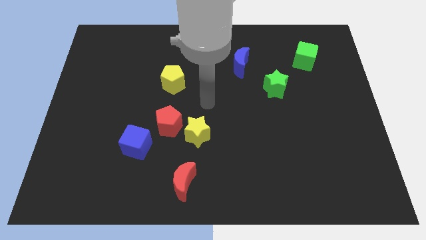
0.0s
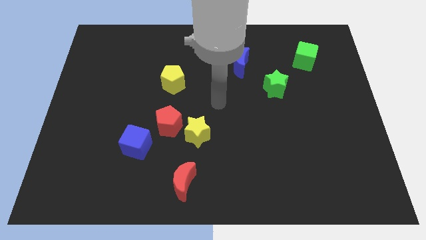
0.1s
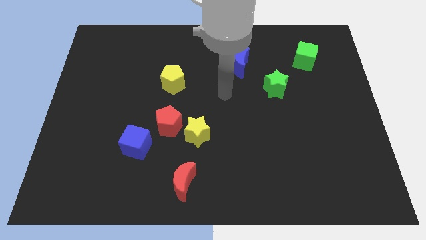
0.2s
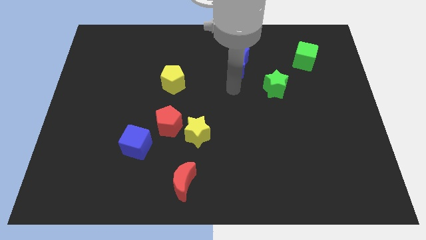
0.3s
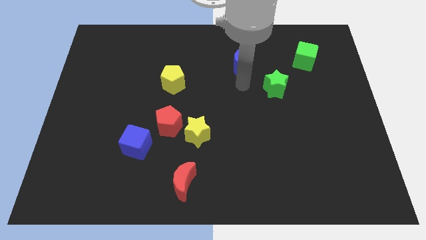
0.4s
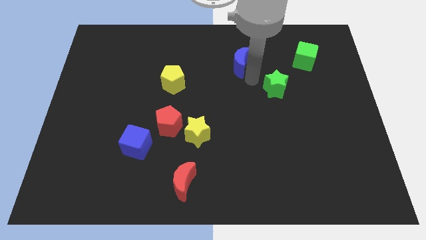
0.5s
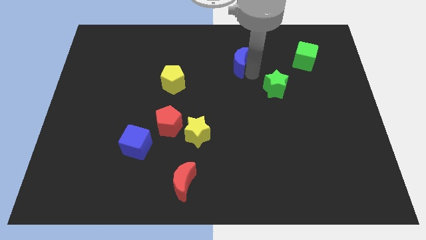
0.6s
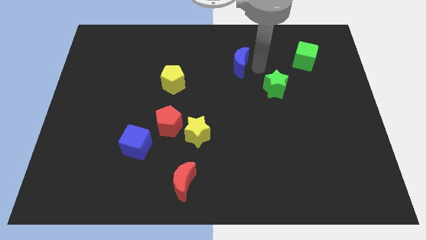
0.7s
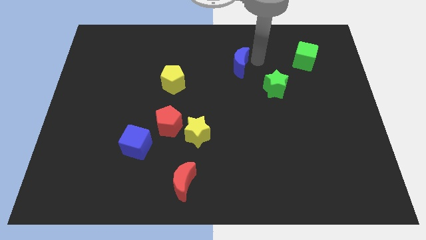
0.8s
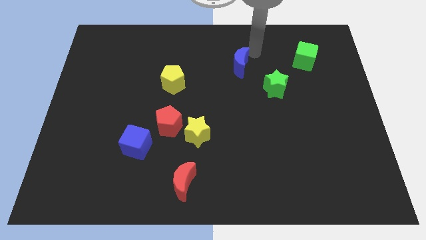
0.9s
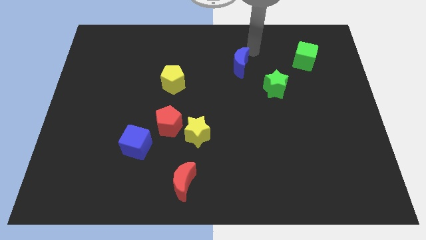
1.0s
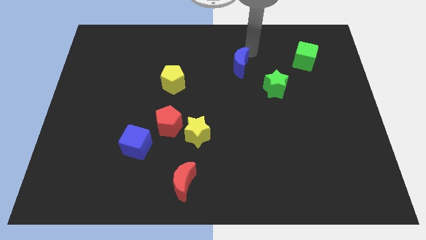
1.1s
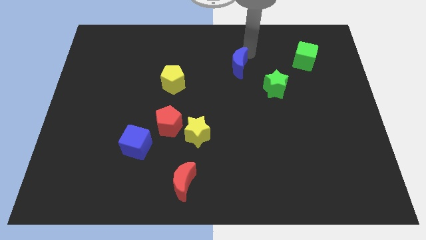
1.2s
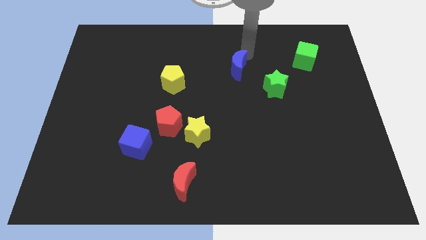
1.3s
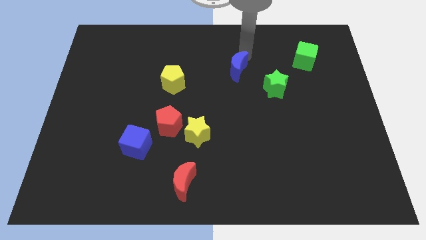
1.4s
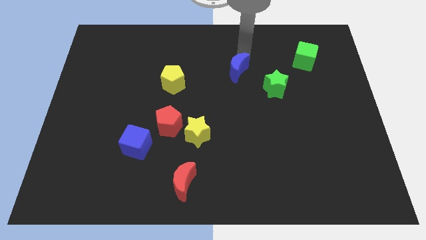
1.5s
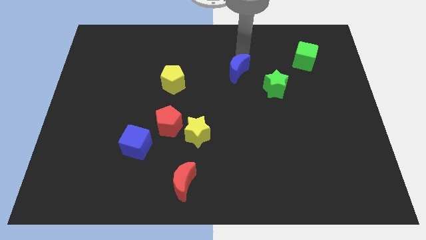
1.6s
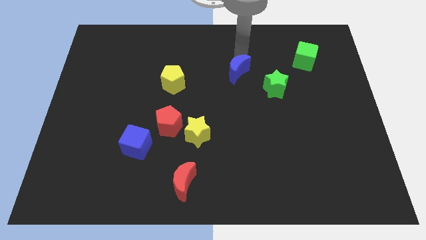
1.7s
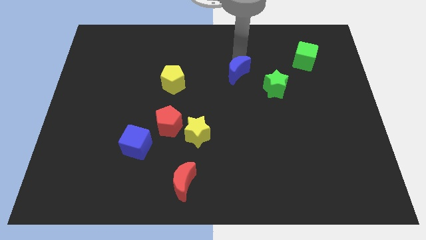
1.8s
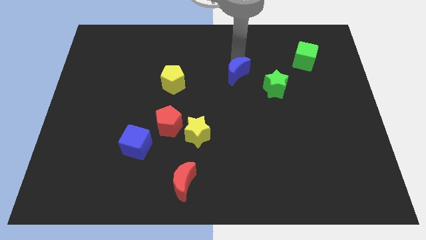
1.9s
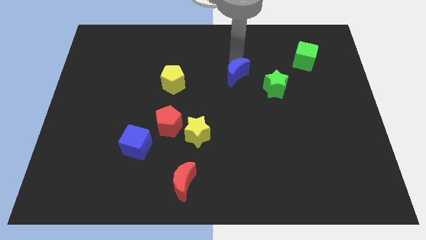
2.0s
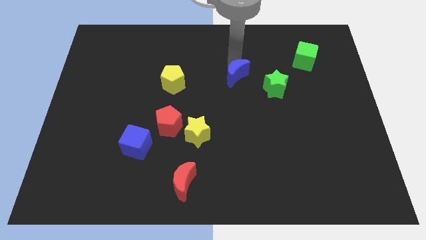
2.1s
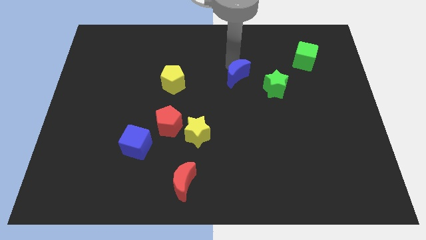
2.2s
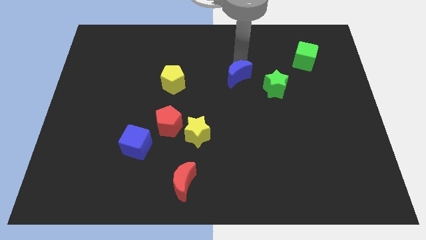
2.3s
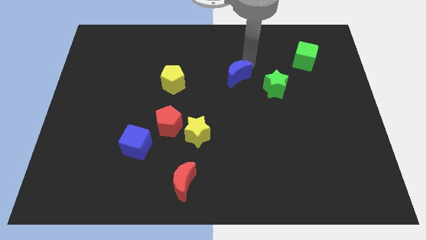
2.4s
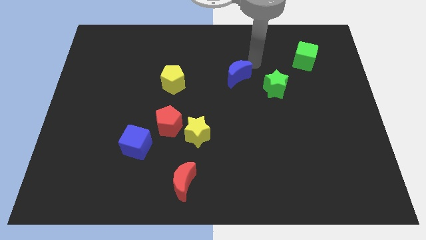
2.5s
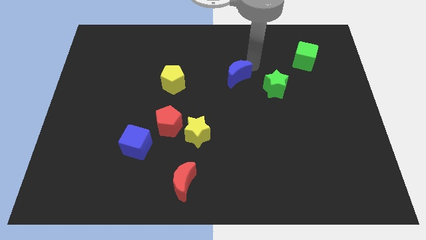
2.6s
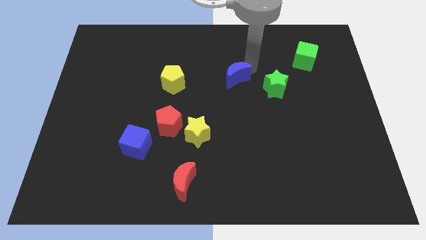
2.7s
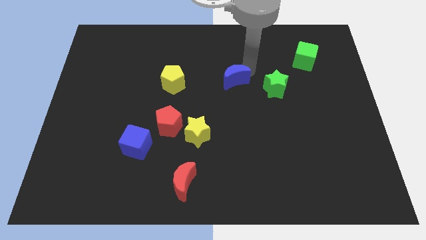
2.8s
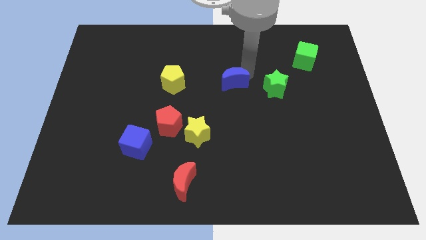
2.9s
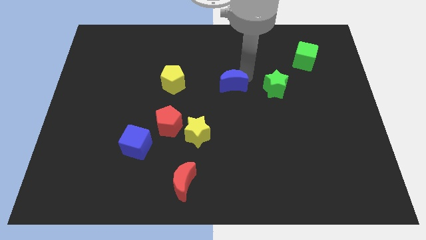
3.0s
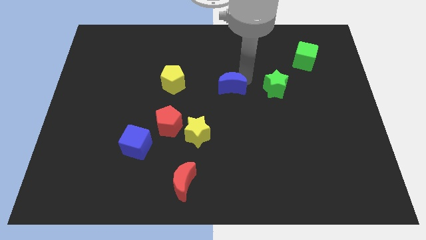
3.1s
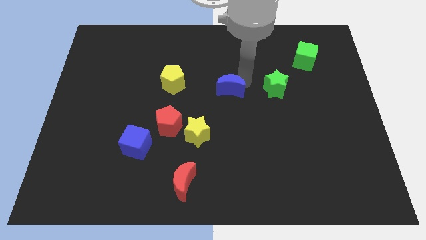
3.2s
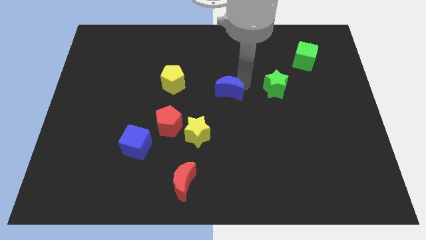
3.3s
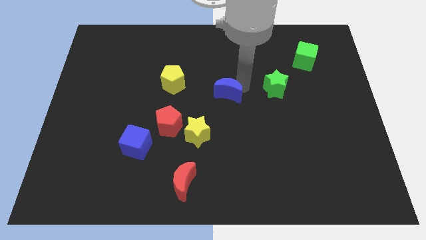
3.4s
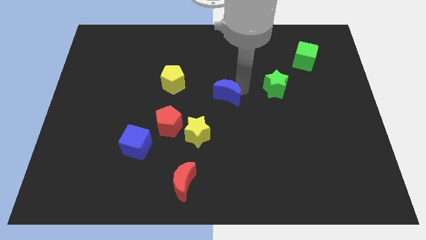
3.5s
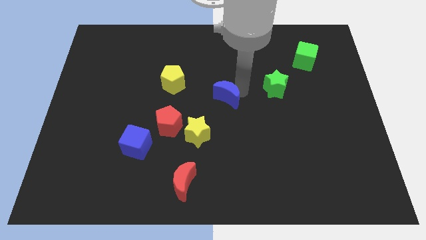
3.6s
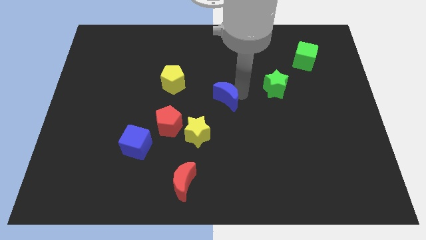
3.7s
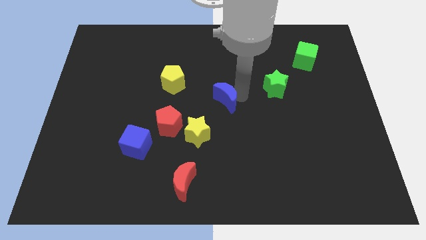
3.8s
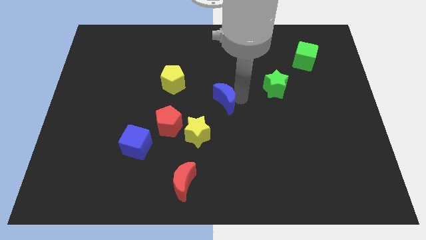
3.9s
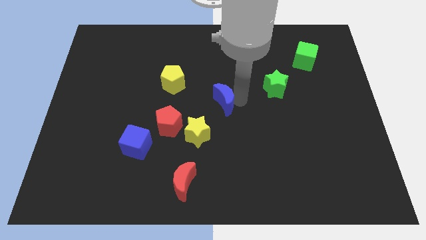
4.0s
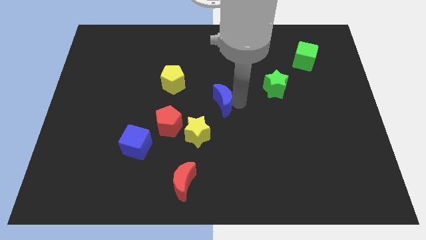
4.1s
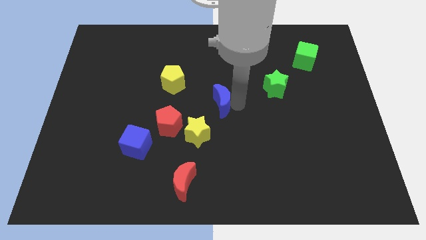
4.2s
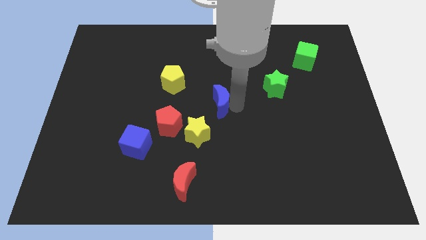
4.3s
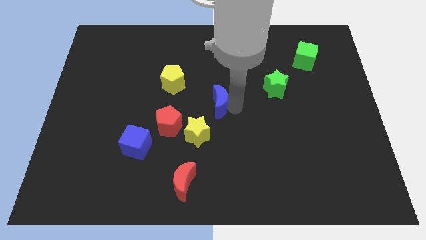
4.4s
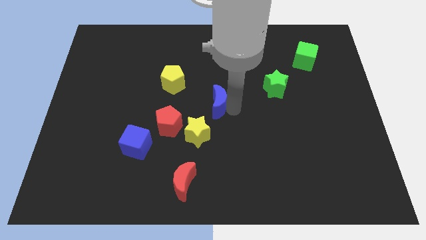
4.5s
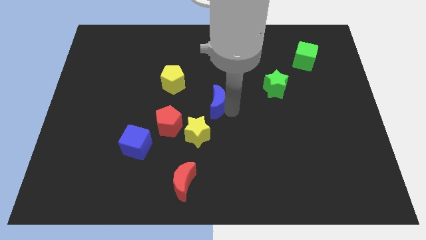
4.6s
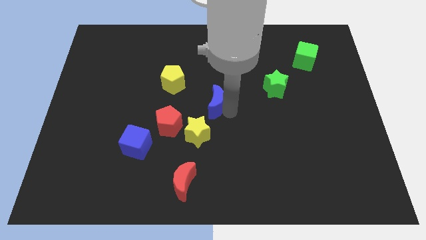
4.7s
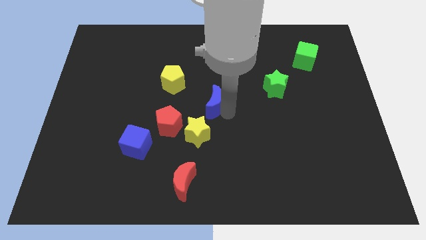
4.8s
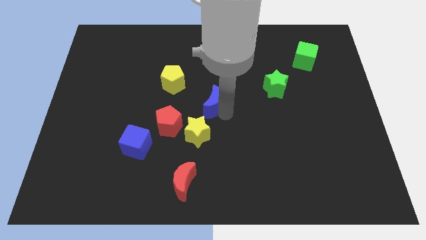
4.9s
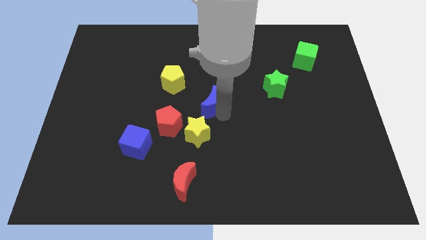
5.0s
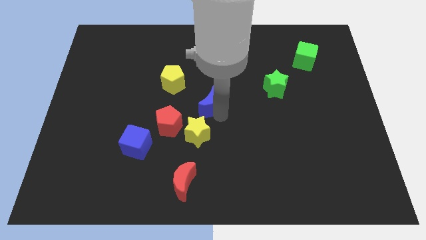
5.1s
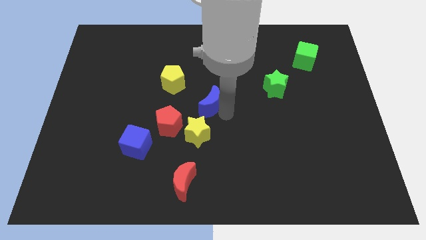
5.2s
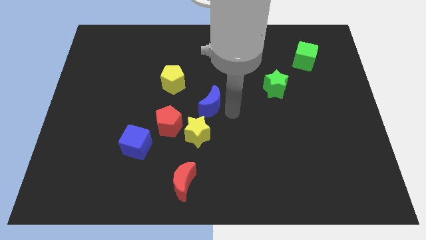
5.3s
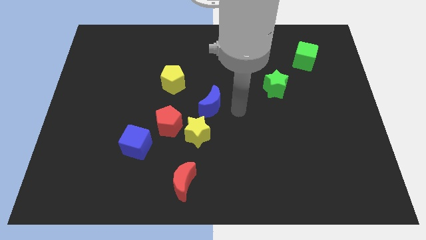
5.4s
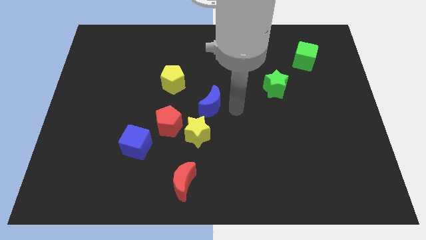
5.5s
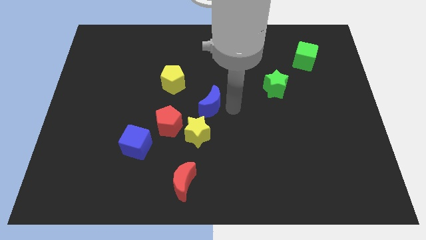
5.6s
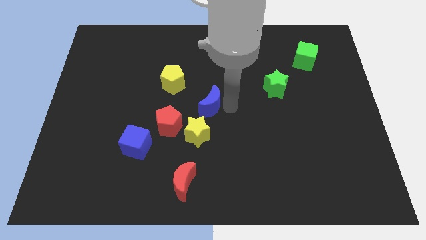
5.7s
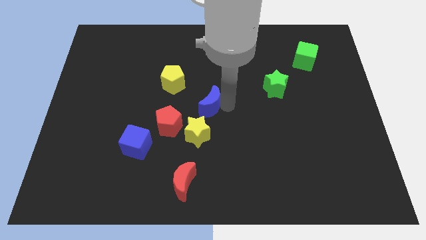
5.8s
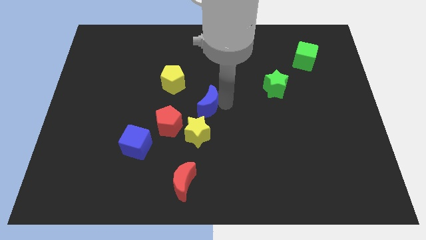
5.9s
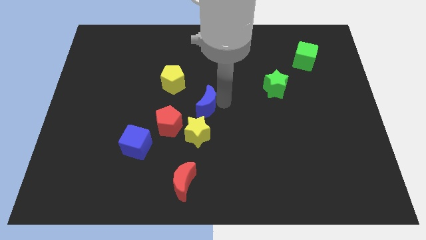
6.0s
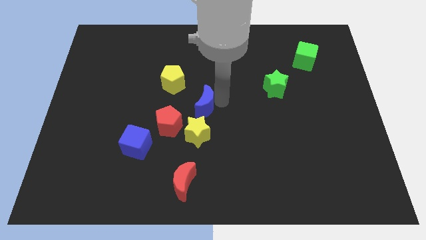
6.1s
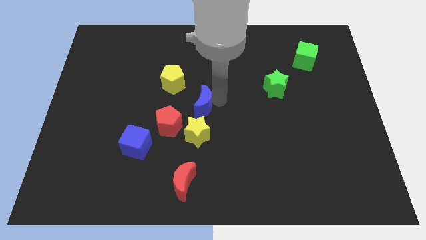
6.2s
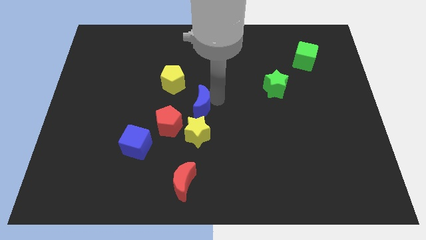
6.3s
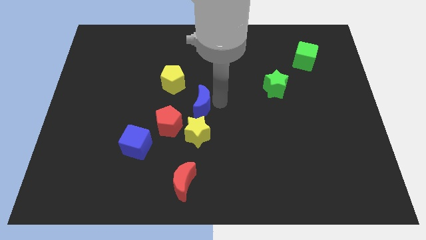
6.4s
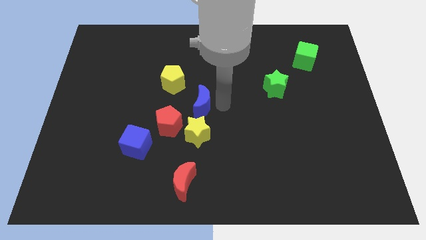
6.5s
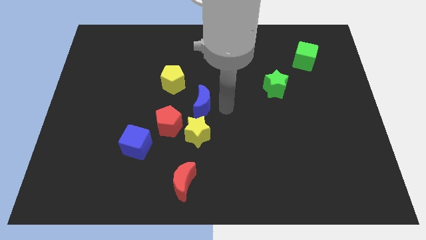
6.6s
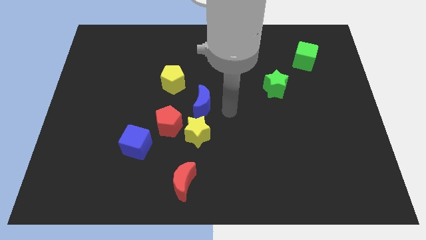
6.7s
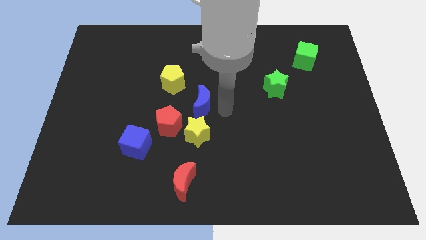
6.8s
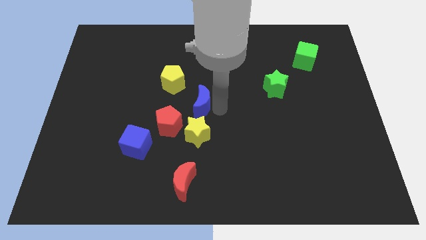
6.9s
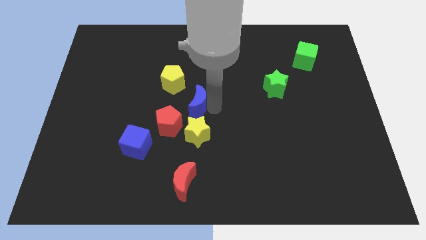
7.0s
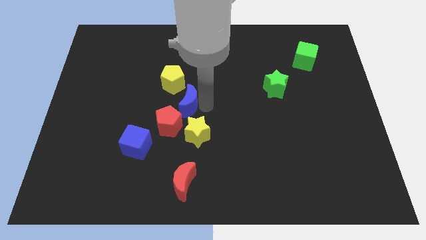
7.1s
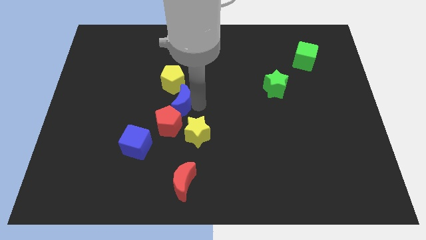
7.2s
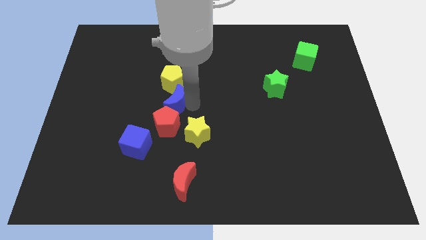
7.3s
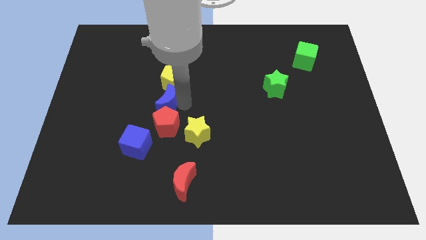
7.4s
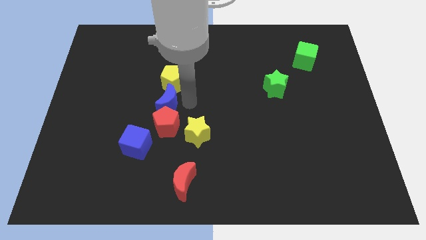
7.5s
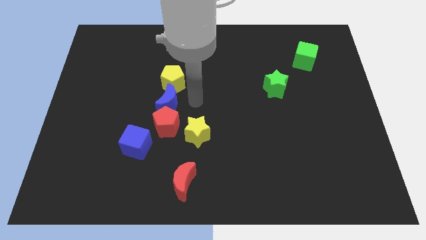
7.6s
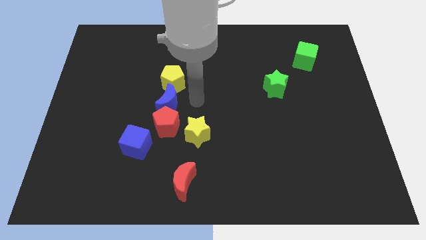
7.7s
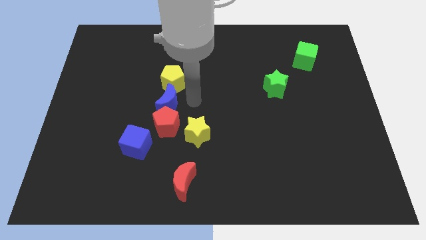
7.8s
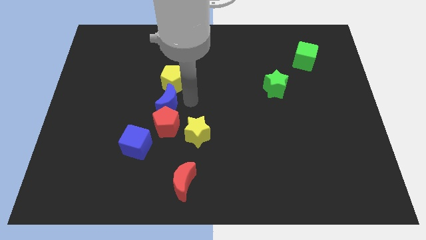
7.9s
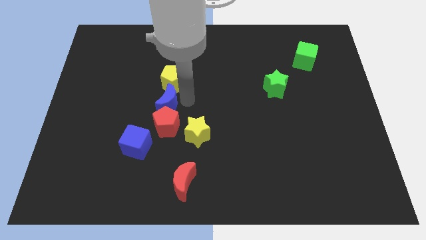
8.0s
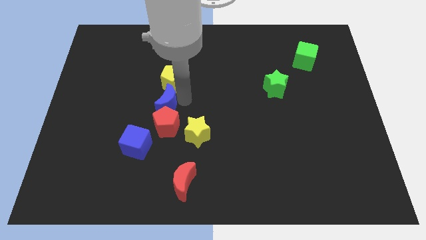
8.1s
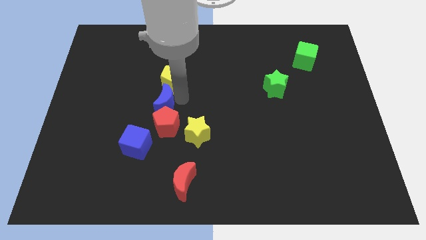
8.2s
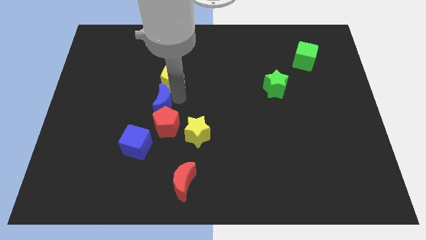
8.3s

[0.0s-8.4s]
push the blue moon to the top side of the blue cube
